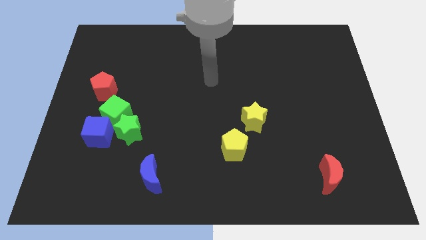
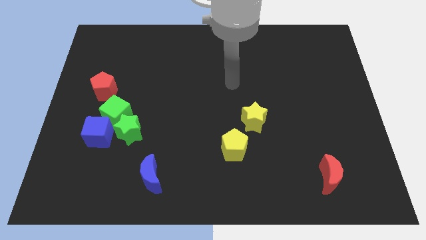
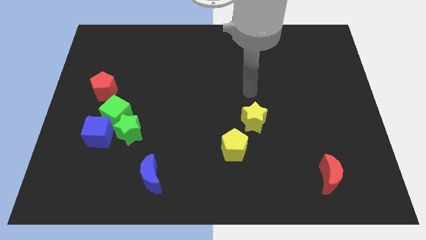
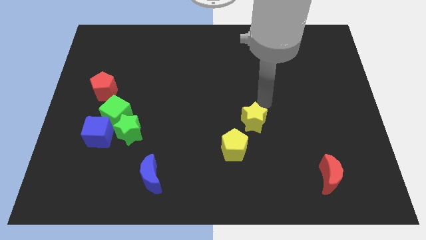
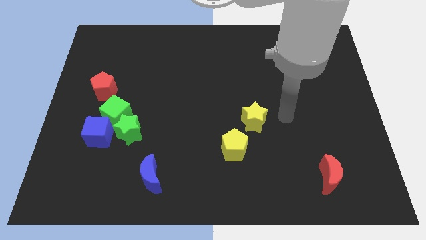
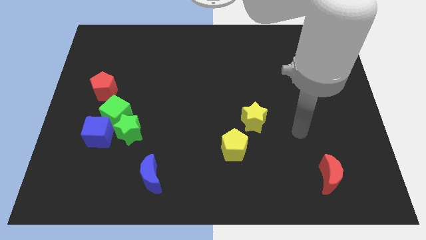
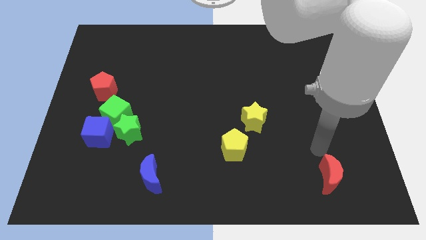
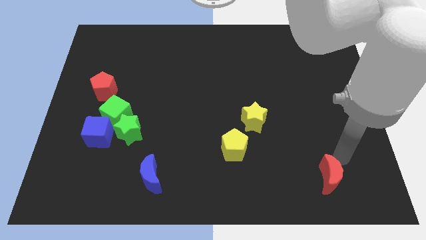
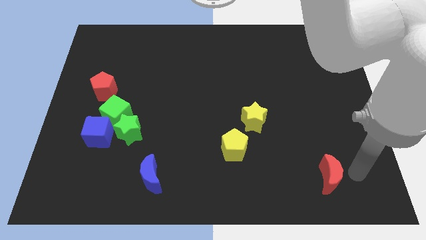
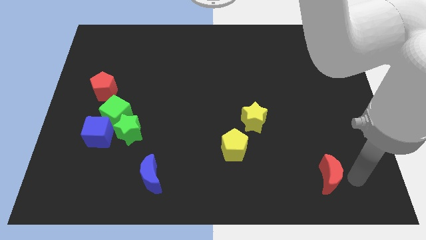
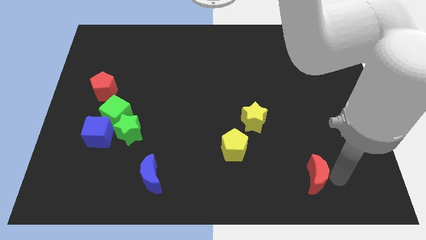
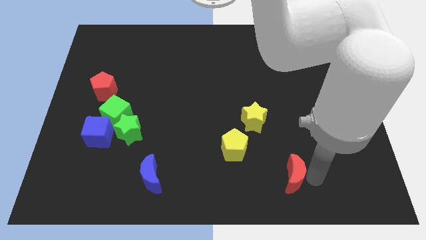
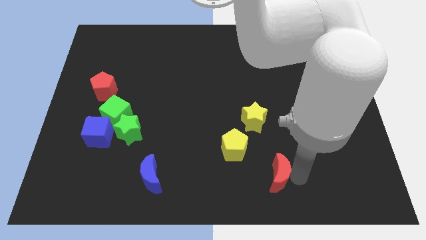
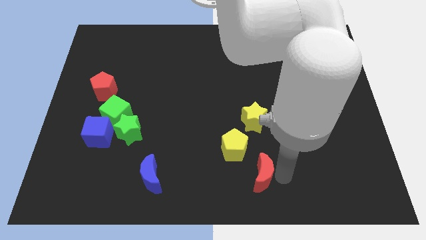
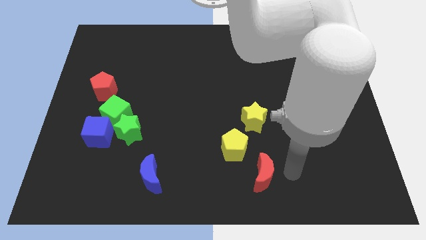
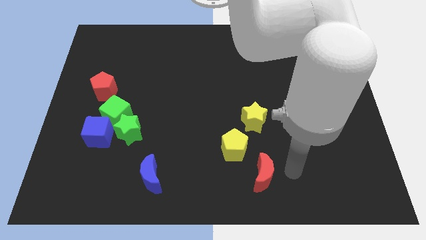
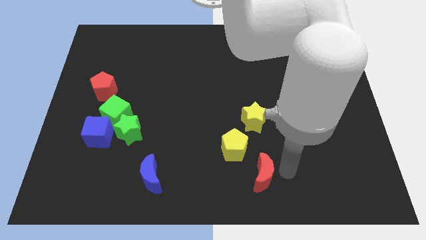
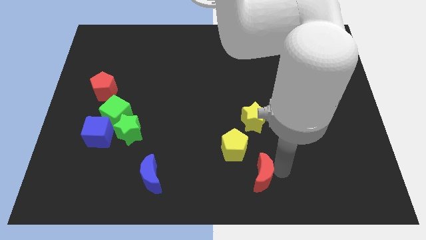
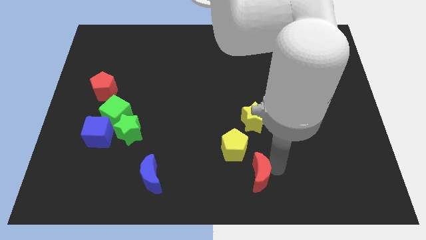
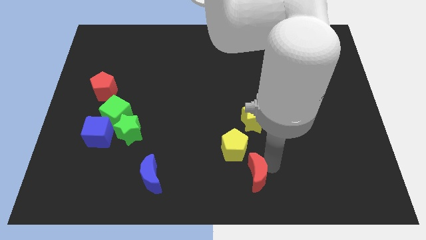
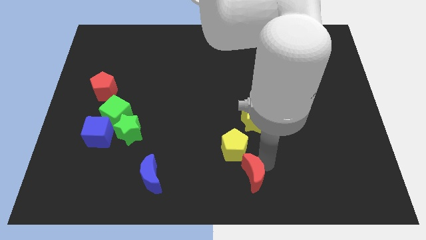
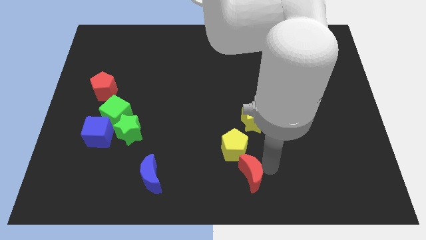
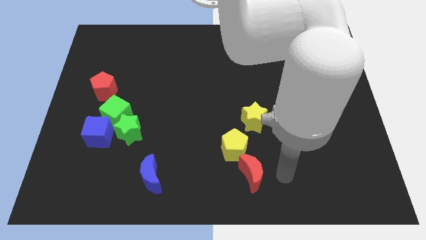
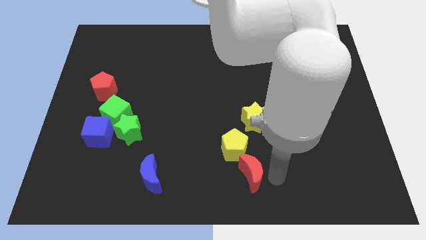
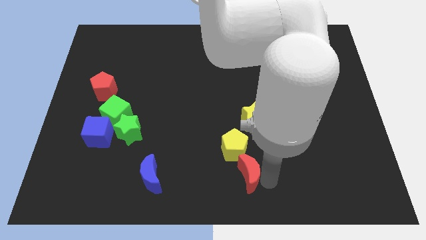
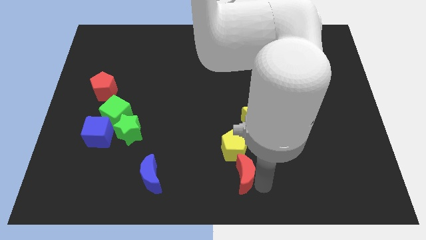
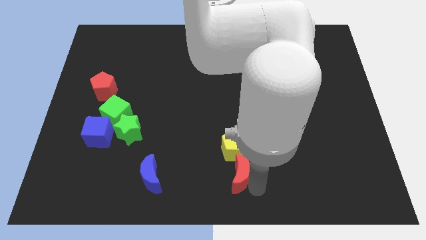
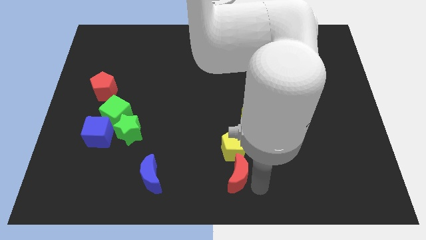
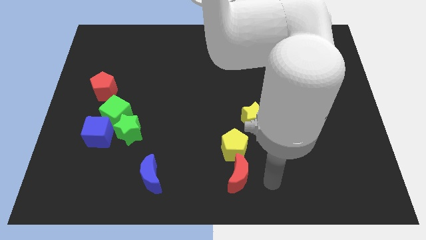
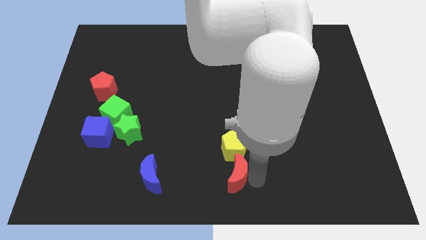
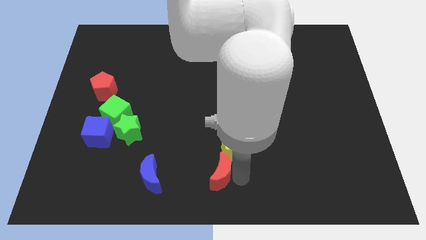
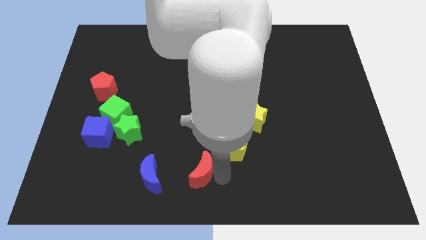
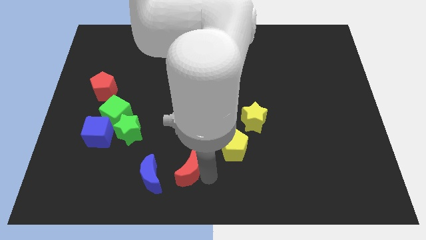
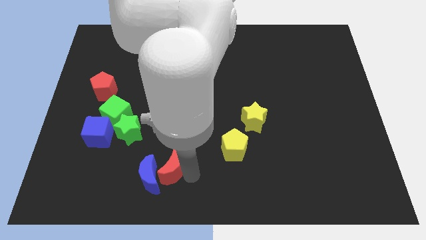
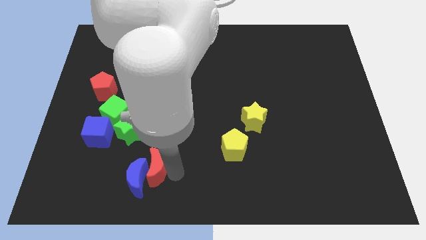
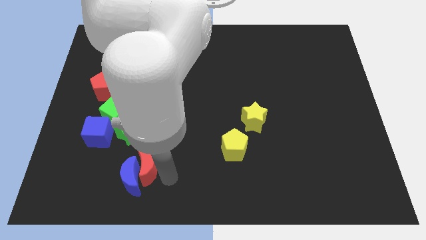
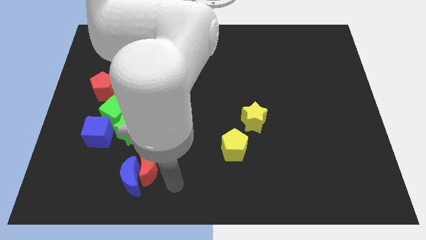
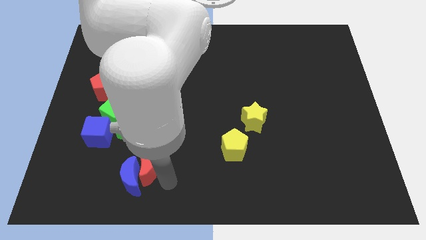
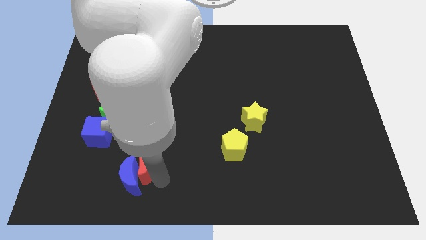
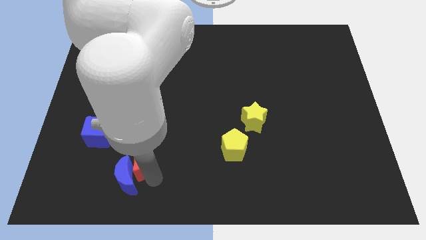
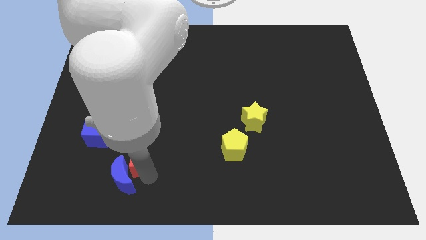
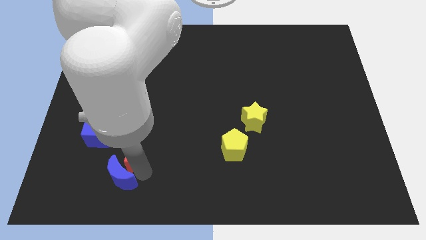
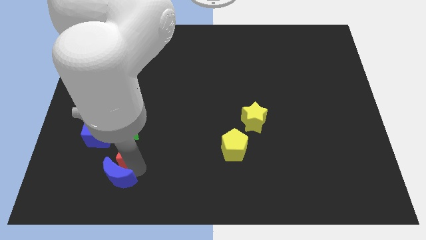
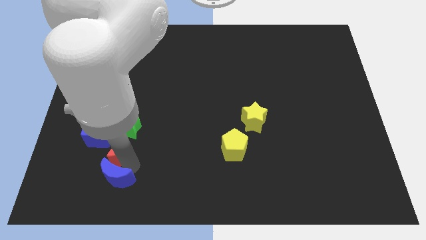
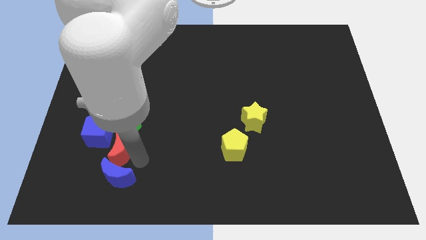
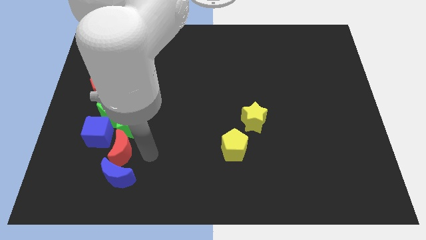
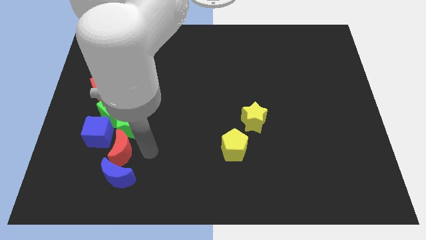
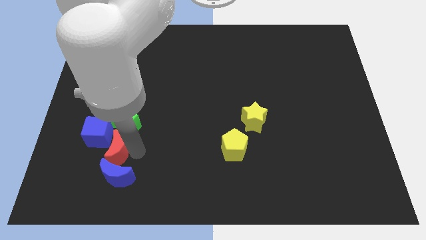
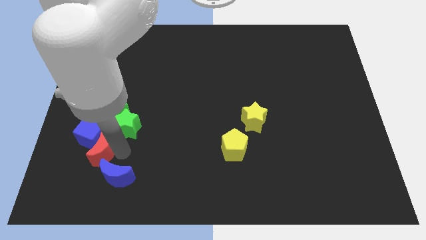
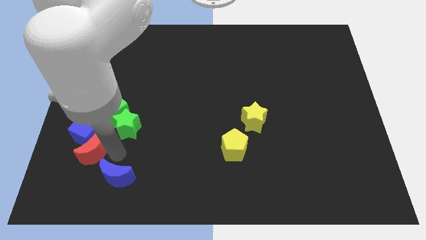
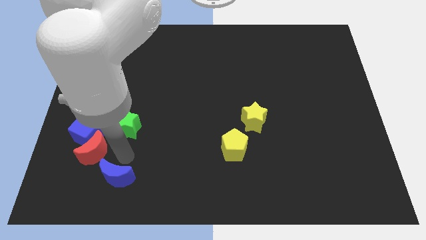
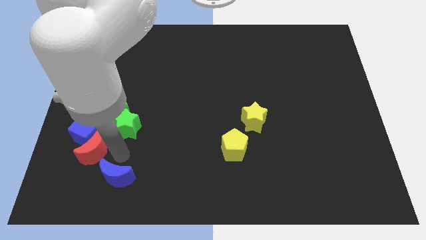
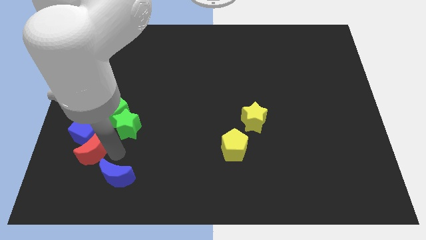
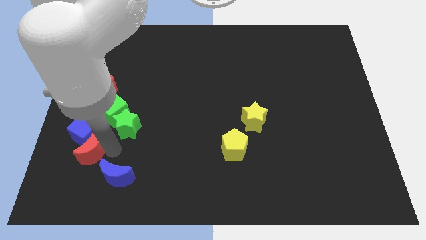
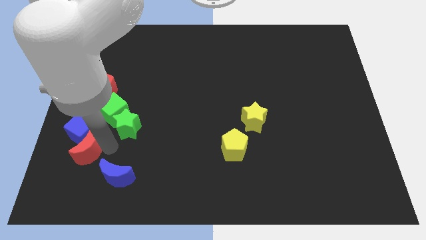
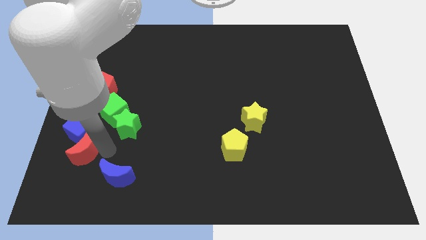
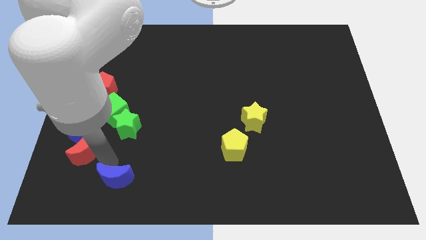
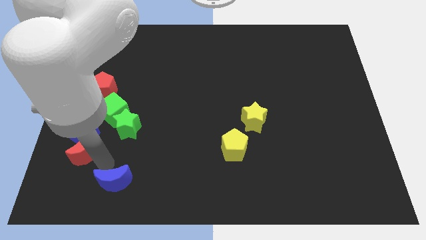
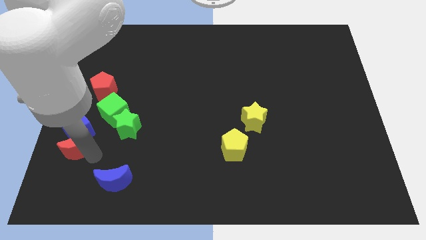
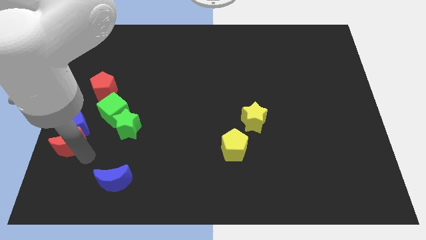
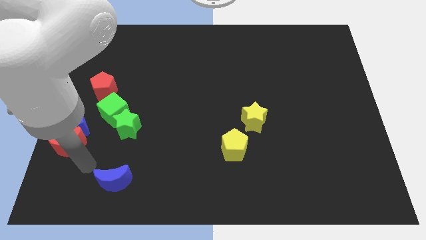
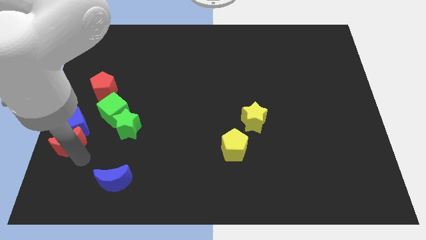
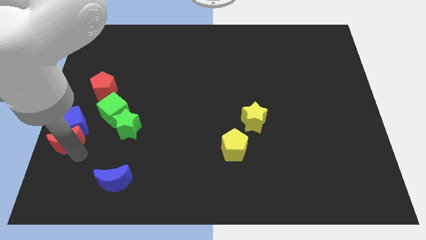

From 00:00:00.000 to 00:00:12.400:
move the red moon to the center left

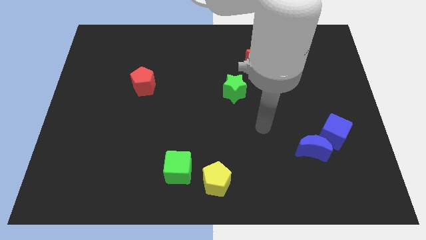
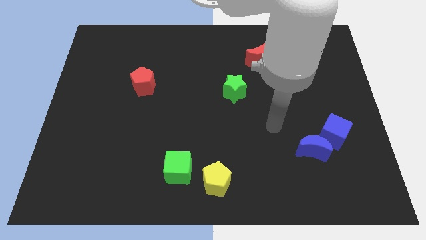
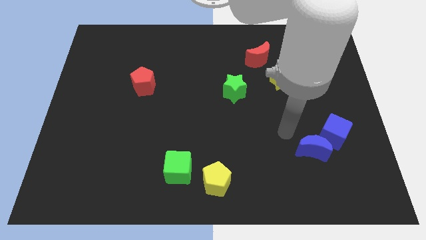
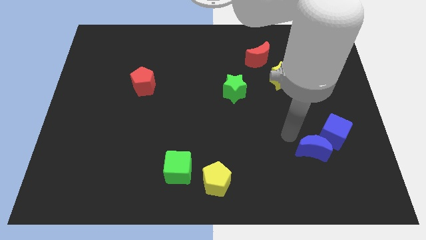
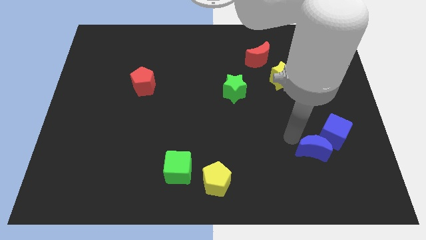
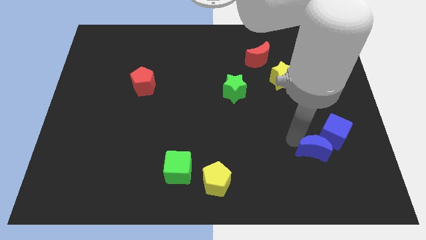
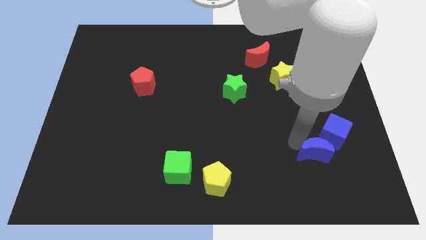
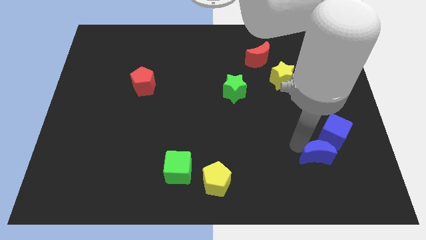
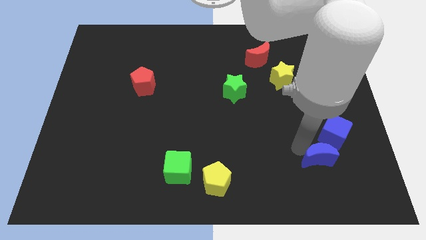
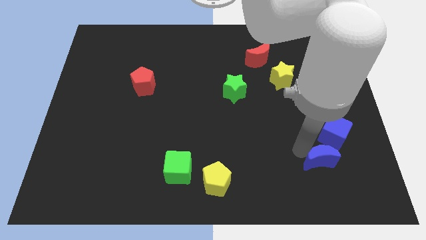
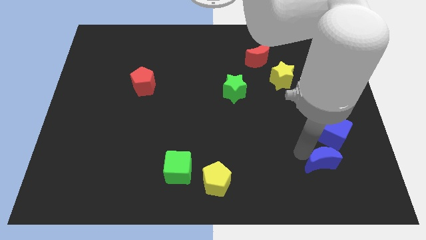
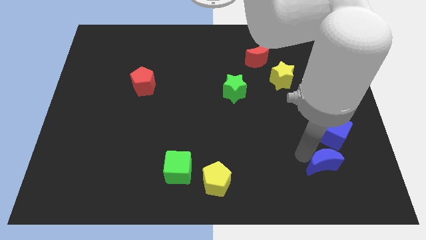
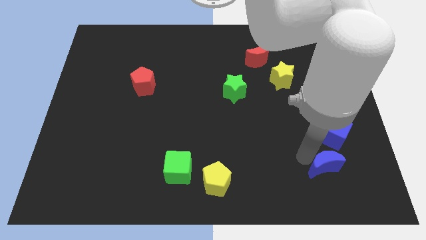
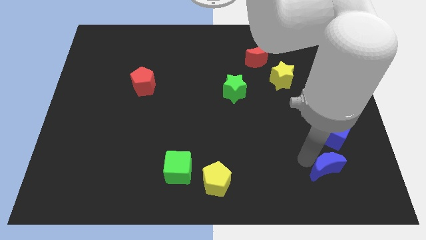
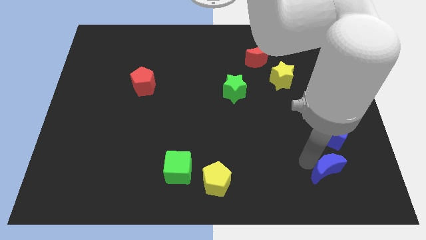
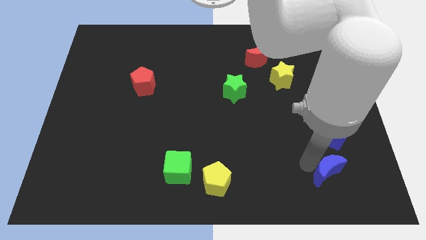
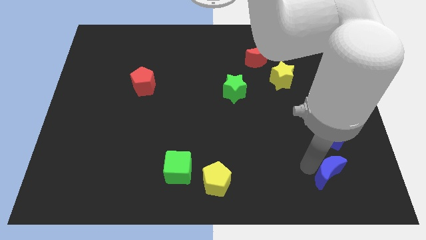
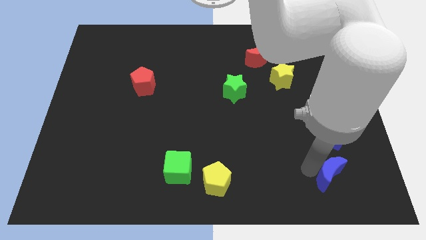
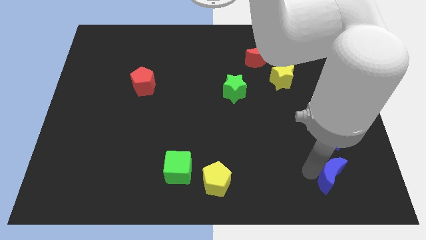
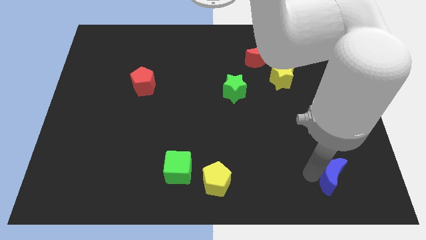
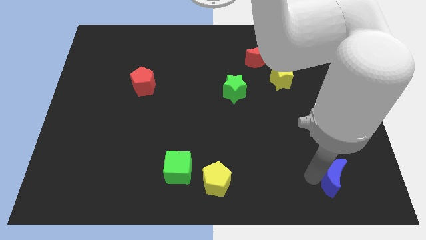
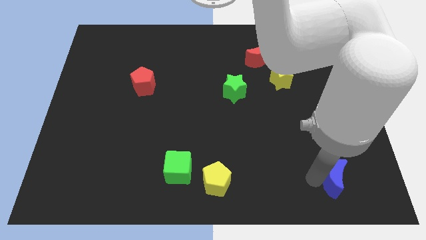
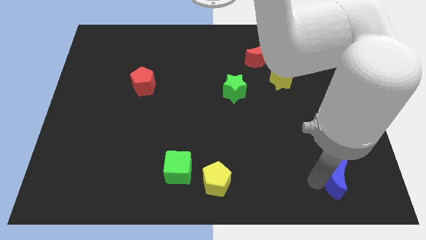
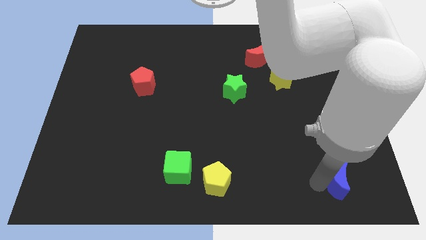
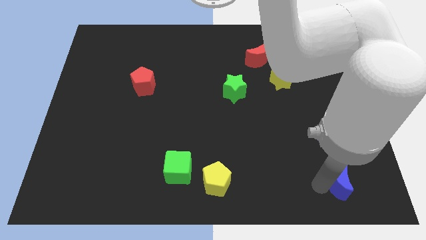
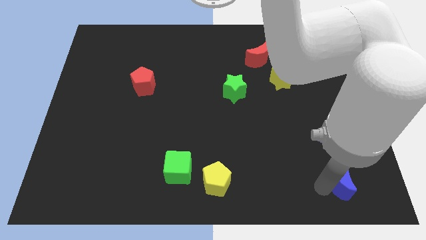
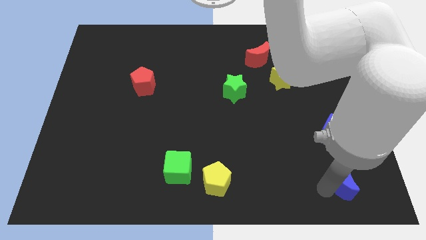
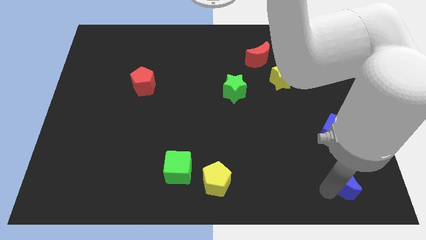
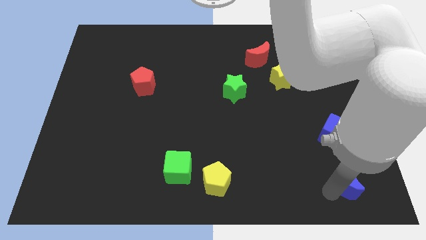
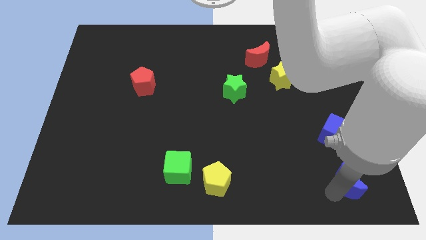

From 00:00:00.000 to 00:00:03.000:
move the blue moon to the lower right corner
